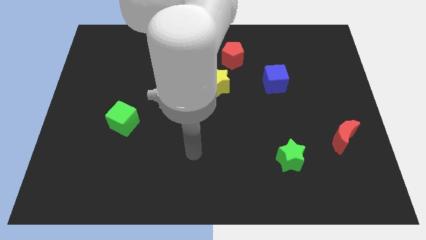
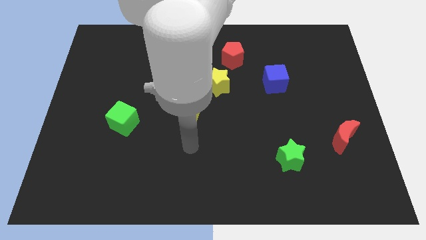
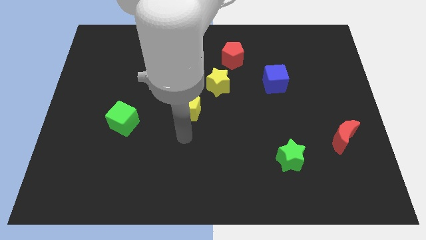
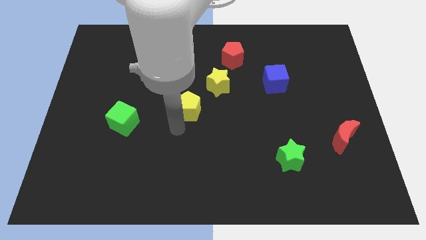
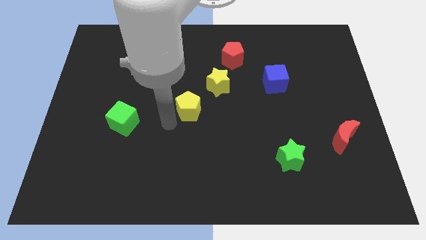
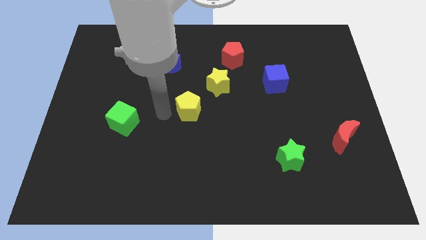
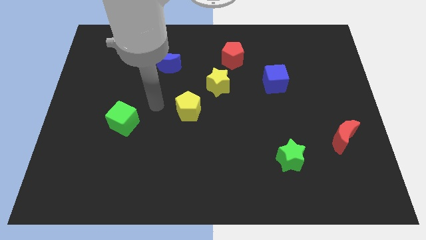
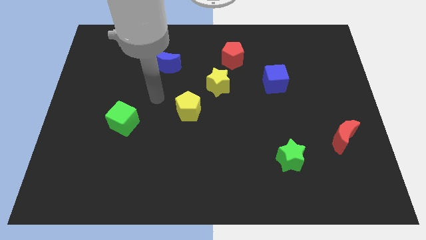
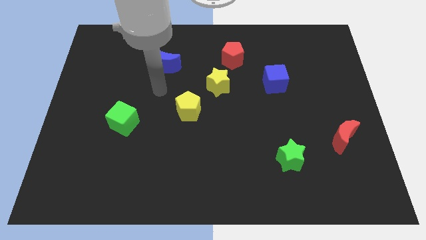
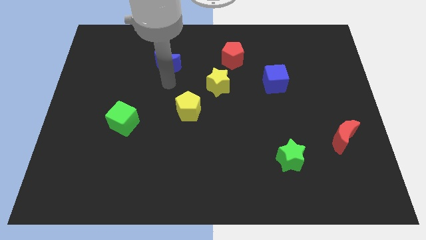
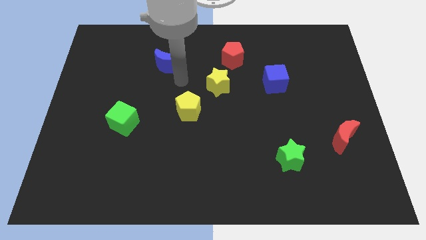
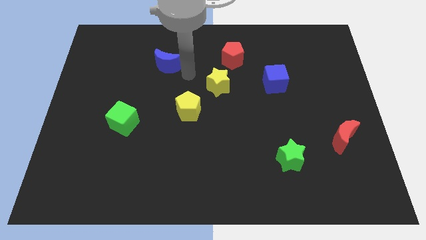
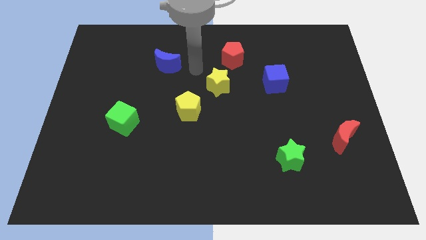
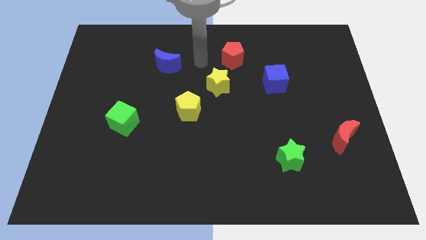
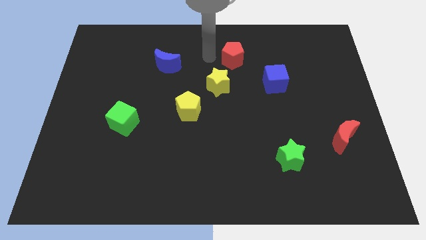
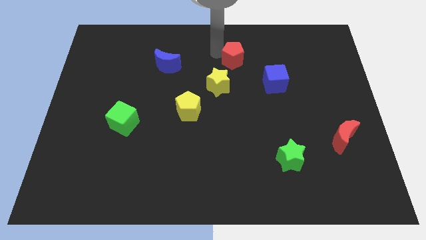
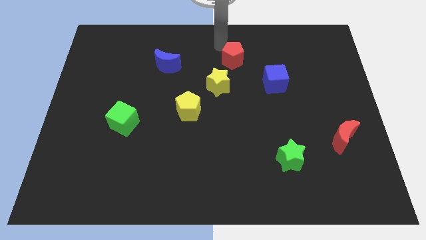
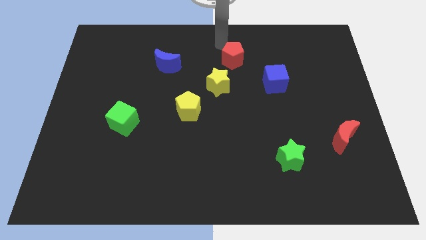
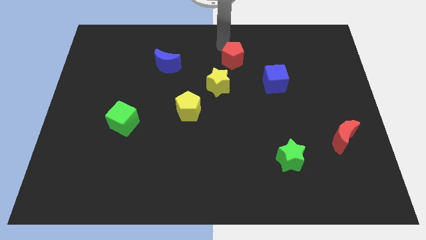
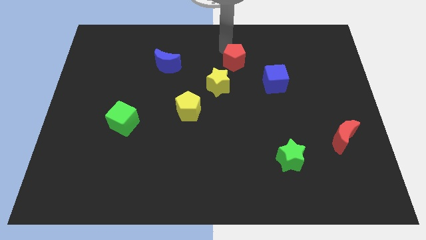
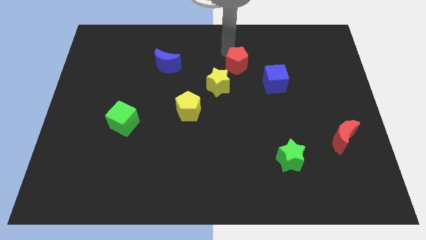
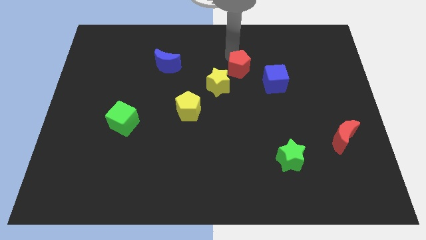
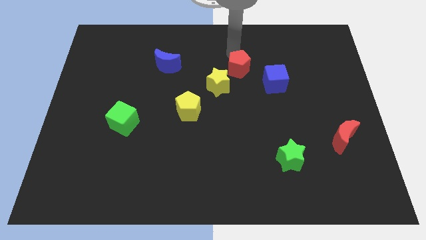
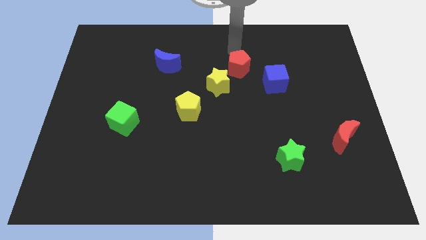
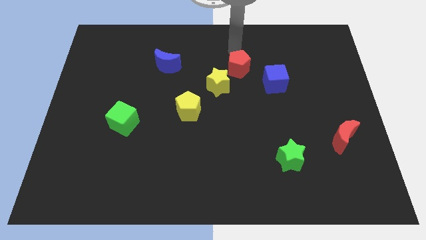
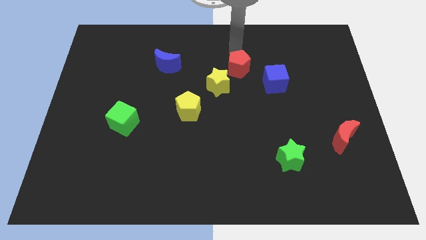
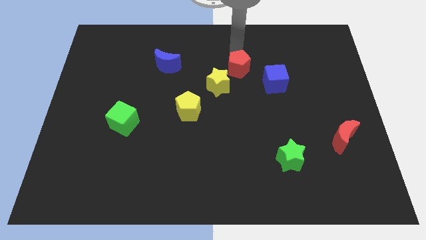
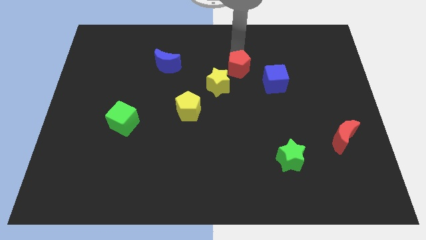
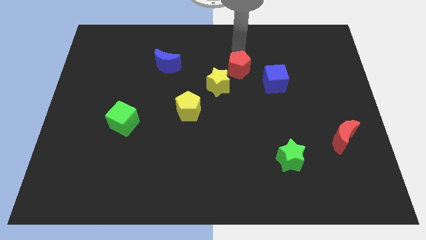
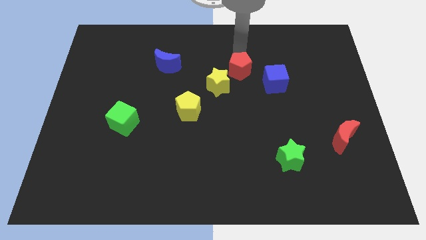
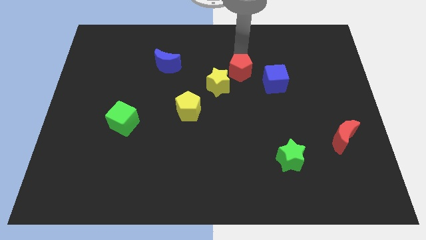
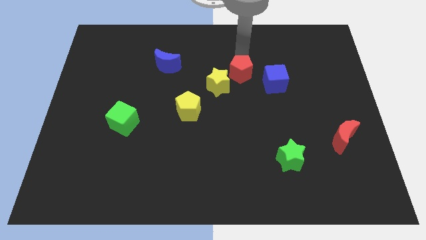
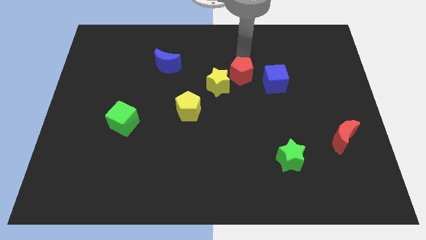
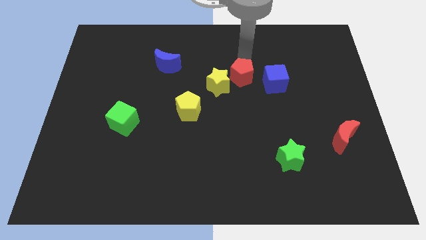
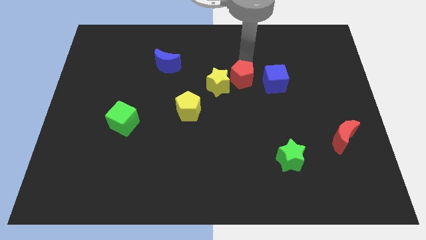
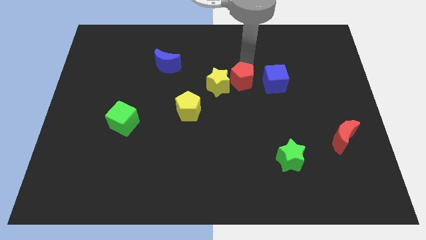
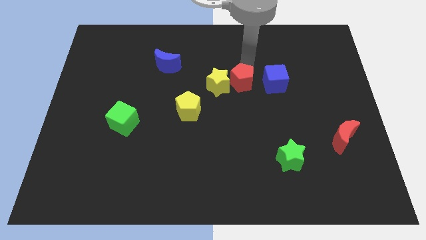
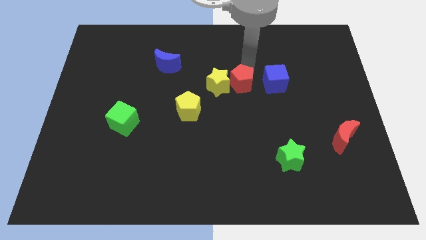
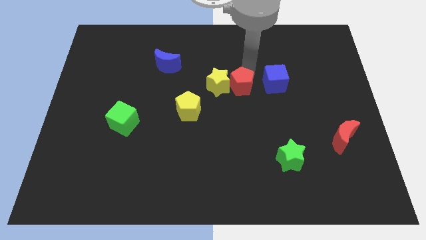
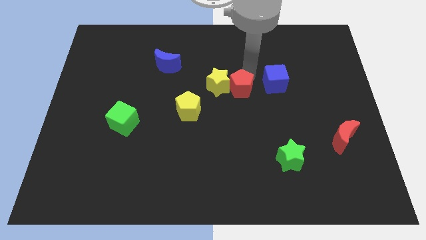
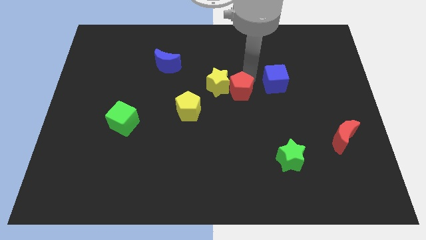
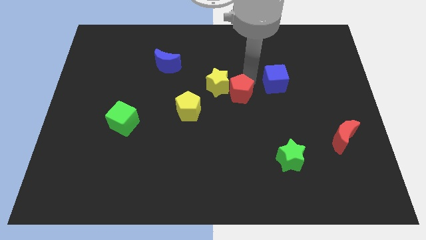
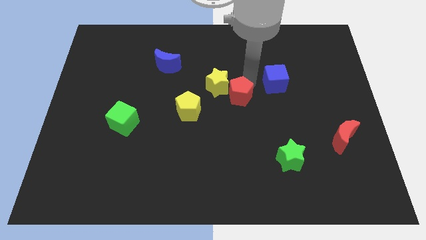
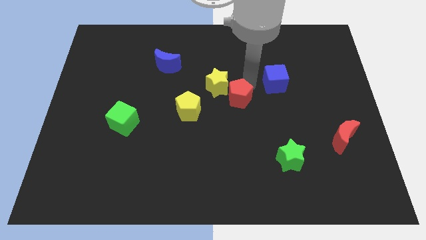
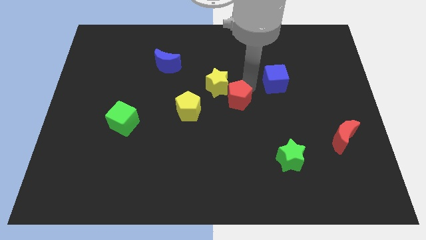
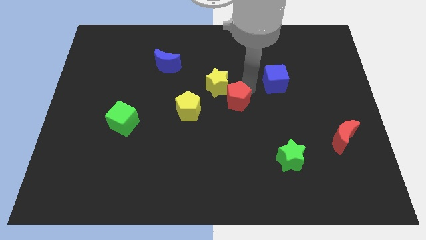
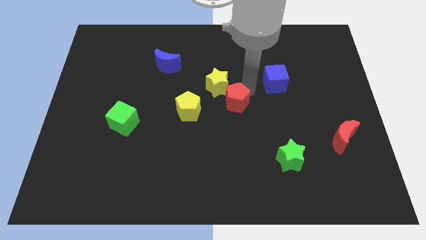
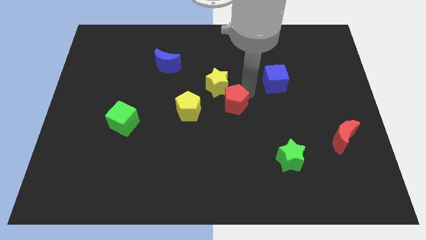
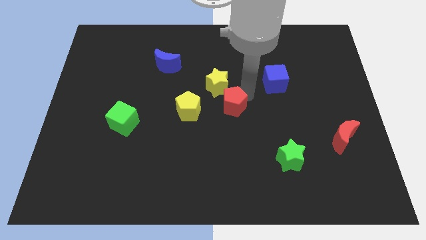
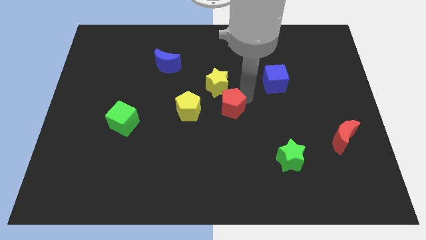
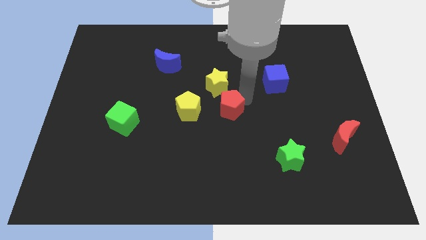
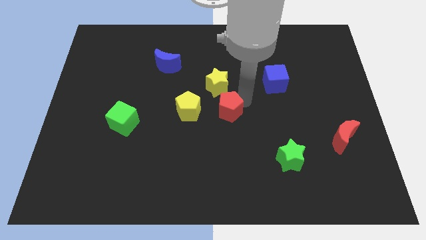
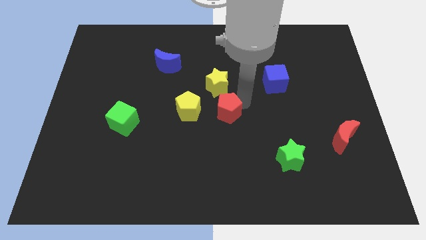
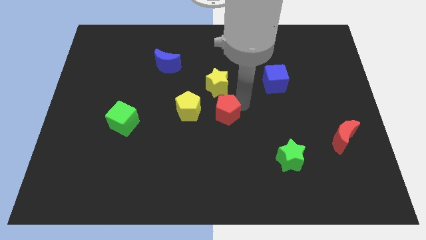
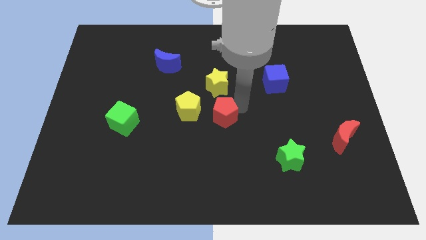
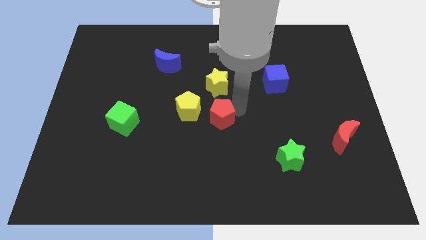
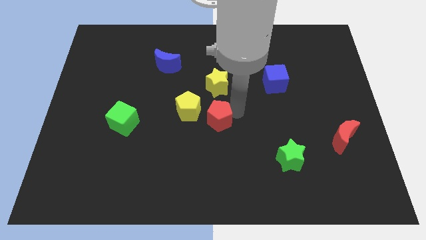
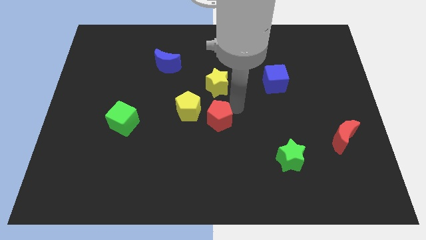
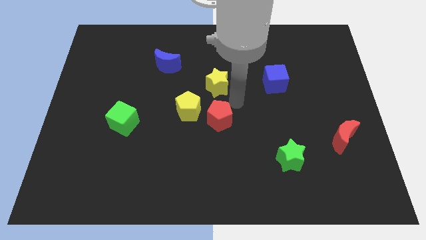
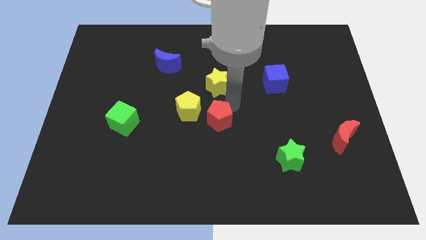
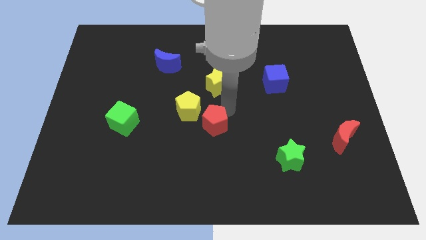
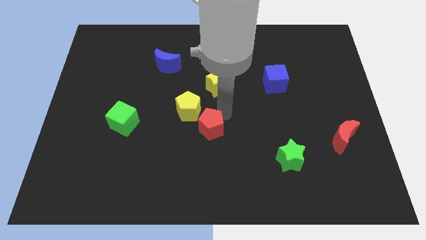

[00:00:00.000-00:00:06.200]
move the red pentagon to the bottom of the yellow pentagon
